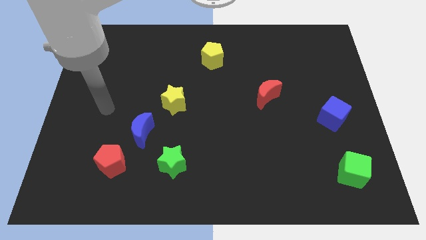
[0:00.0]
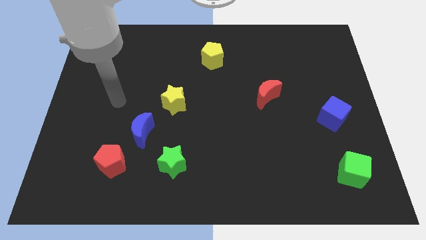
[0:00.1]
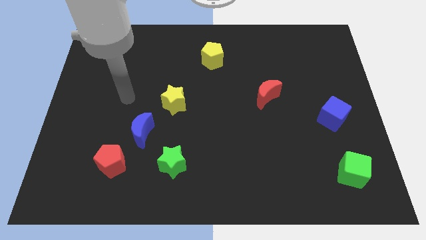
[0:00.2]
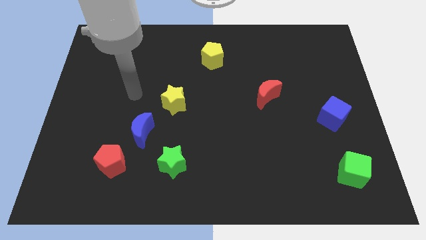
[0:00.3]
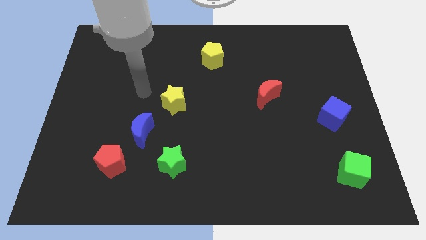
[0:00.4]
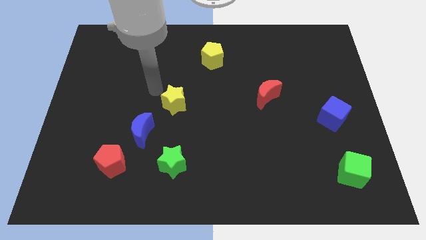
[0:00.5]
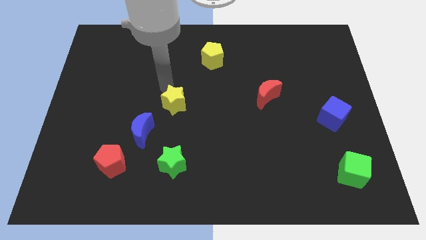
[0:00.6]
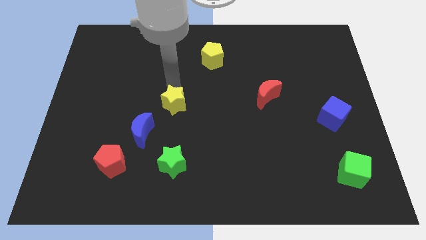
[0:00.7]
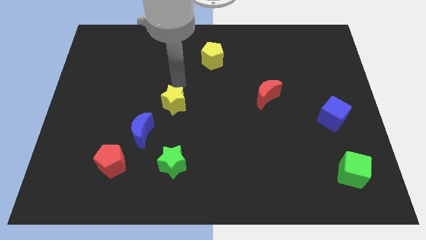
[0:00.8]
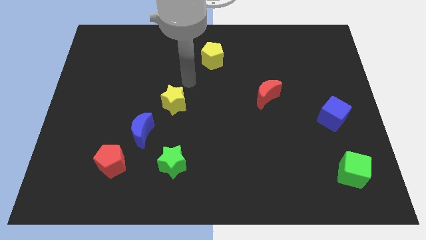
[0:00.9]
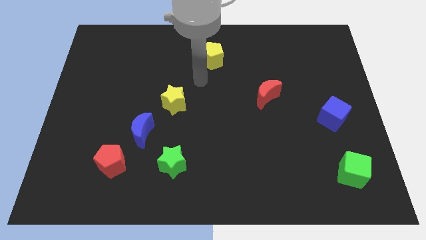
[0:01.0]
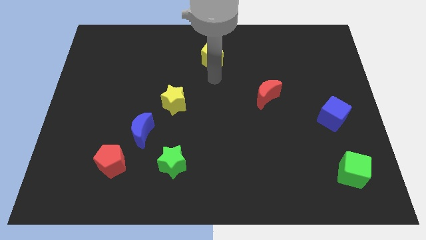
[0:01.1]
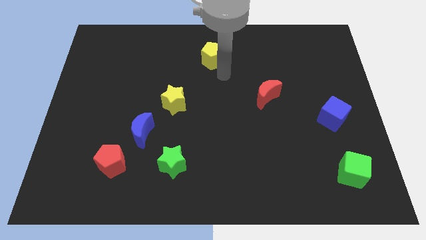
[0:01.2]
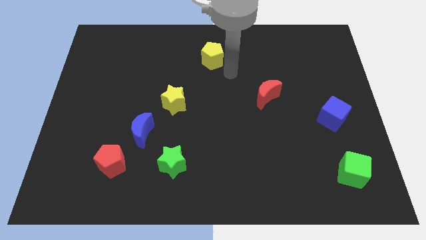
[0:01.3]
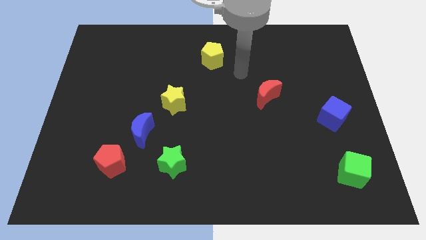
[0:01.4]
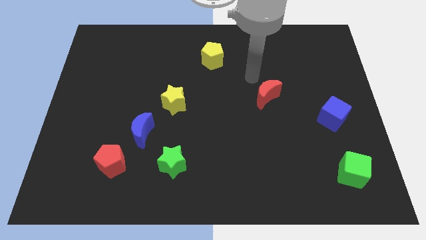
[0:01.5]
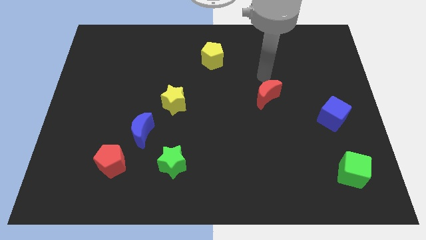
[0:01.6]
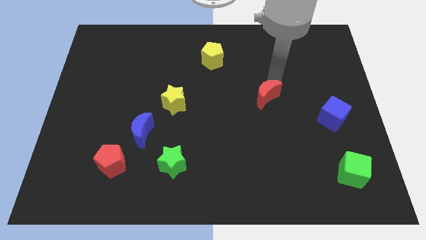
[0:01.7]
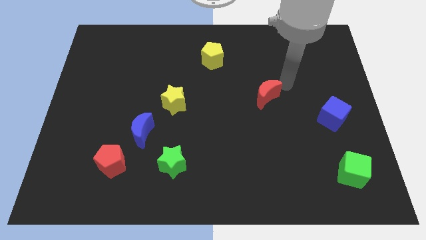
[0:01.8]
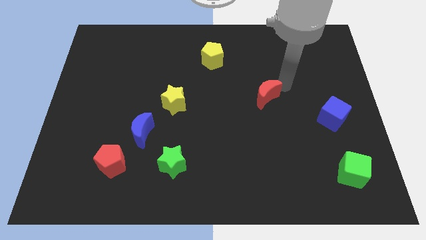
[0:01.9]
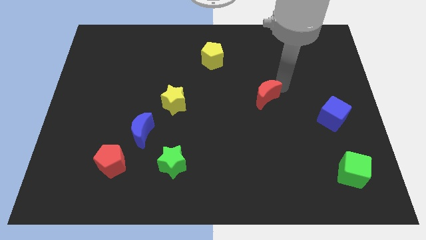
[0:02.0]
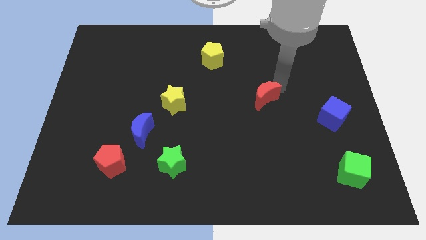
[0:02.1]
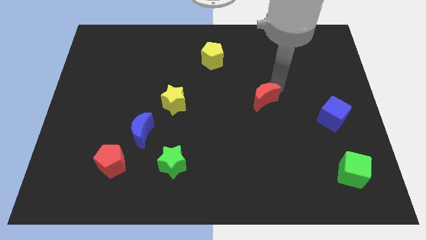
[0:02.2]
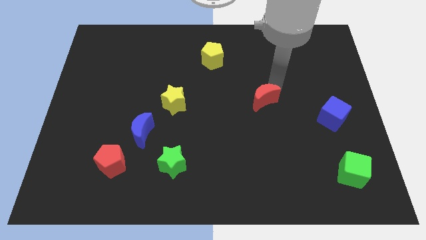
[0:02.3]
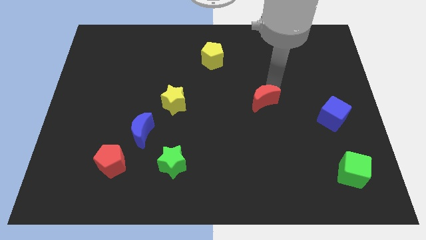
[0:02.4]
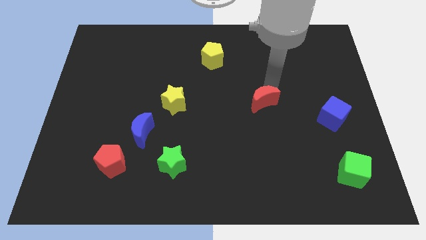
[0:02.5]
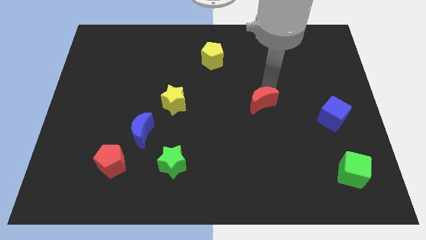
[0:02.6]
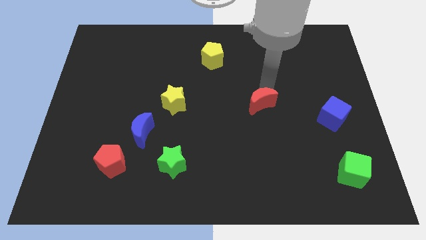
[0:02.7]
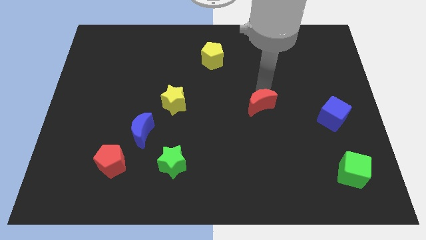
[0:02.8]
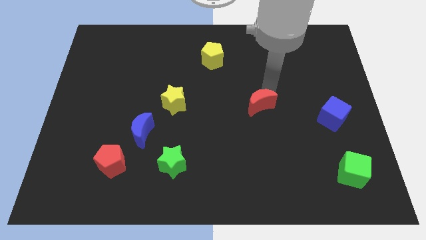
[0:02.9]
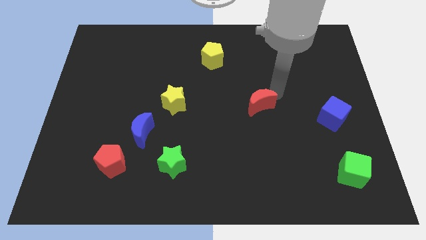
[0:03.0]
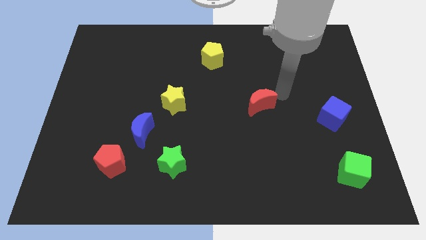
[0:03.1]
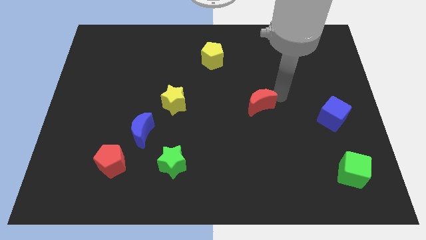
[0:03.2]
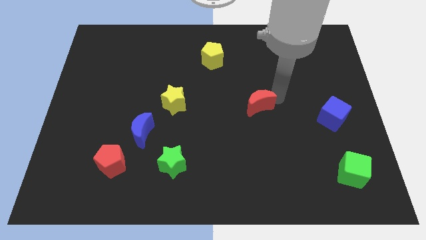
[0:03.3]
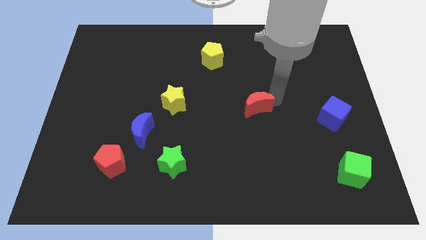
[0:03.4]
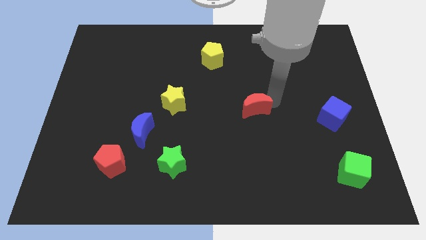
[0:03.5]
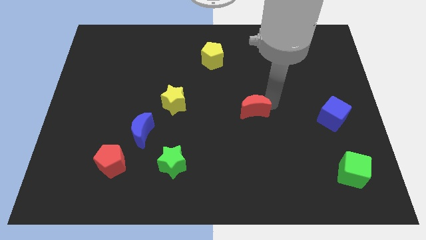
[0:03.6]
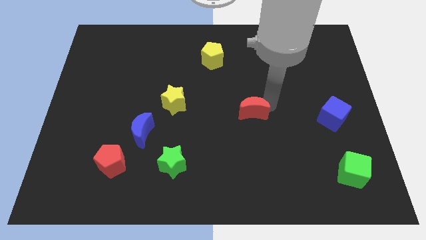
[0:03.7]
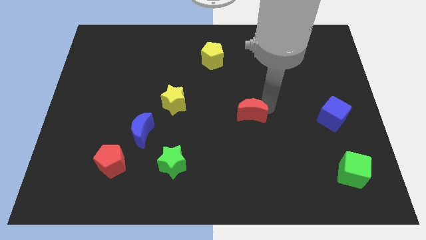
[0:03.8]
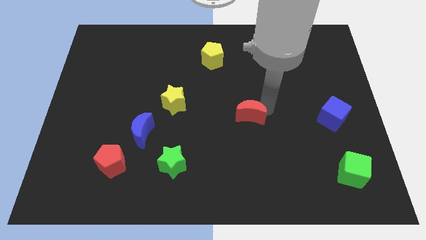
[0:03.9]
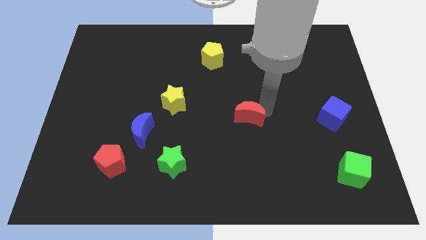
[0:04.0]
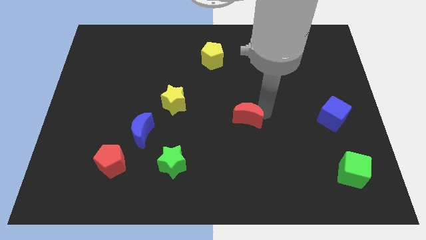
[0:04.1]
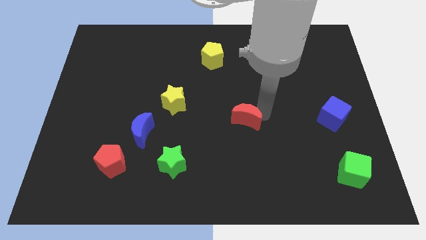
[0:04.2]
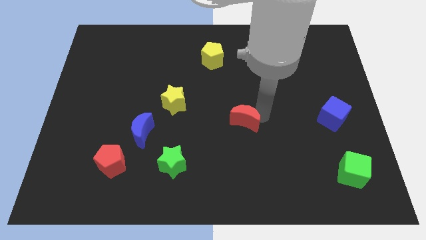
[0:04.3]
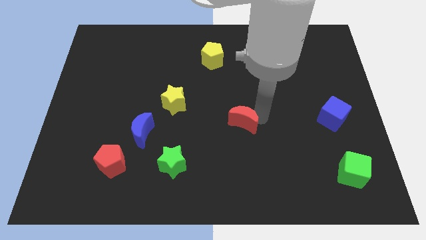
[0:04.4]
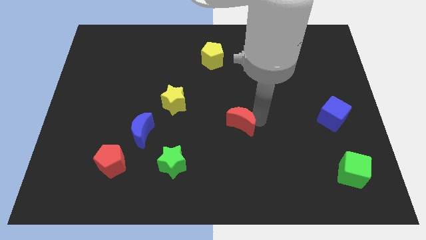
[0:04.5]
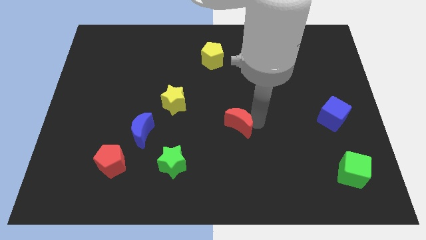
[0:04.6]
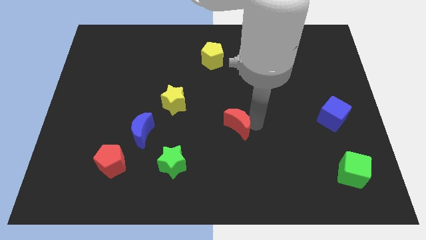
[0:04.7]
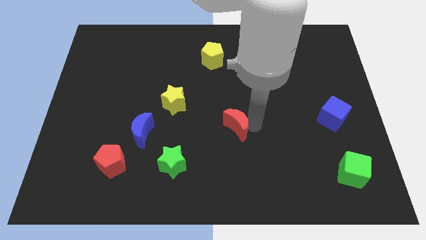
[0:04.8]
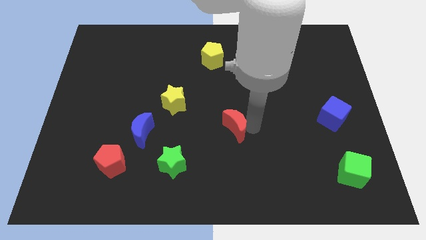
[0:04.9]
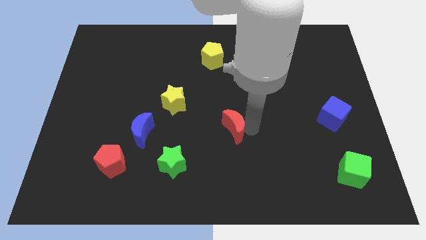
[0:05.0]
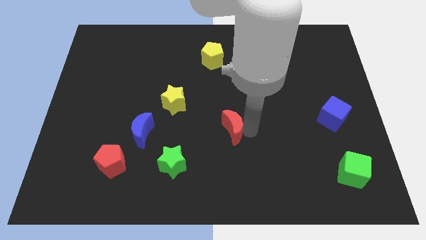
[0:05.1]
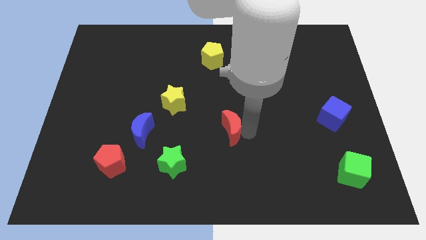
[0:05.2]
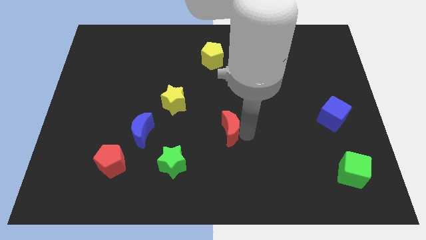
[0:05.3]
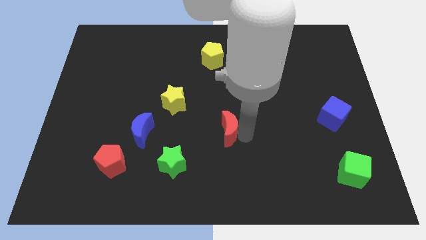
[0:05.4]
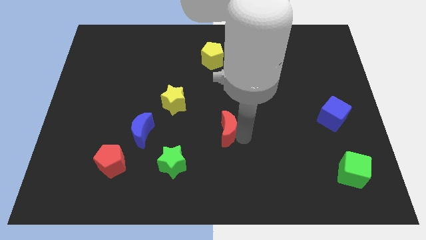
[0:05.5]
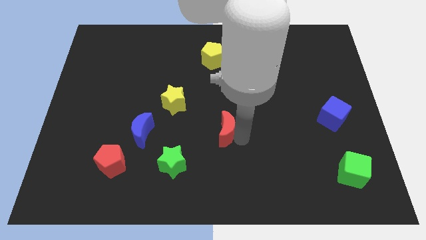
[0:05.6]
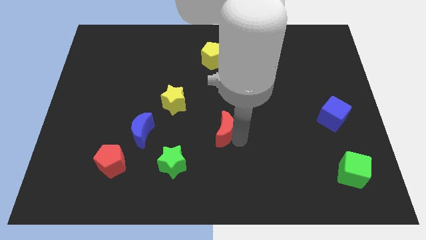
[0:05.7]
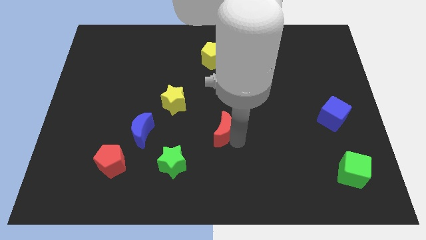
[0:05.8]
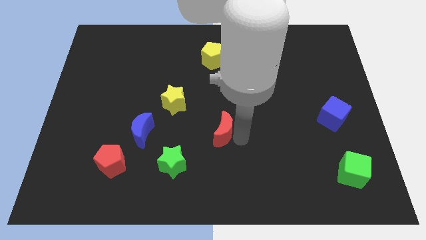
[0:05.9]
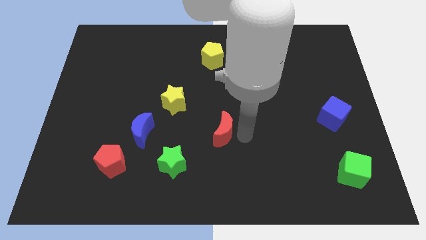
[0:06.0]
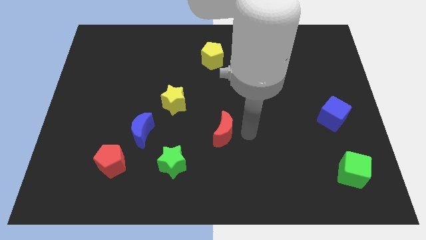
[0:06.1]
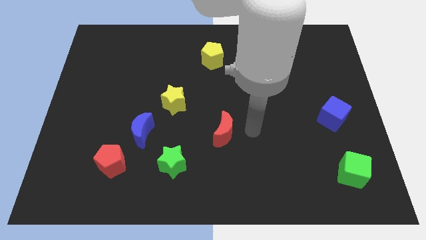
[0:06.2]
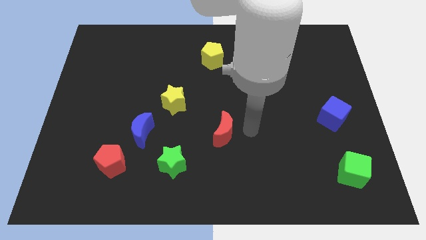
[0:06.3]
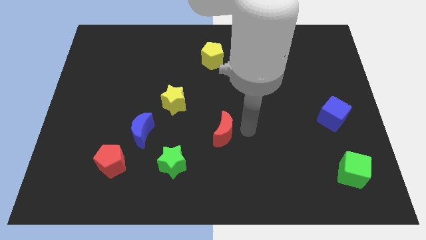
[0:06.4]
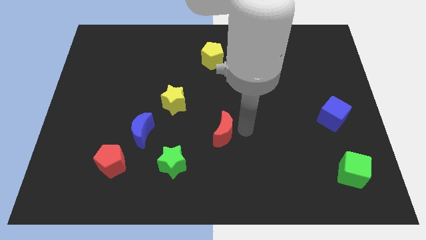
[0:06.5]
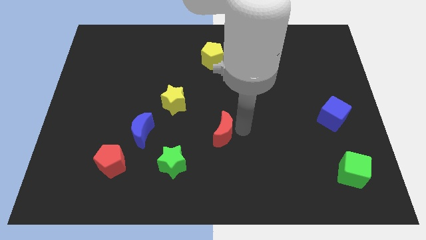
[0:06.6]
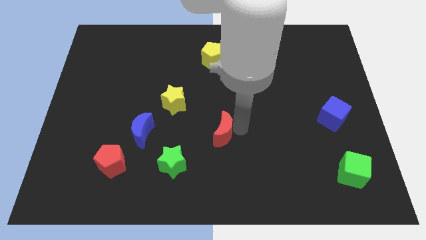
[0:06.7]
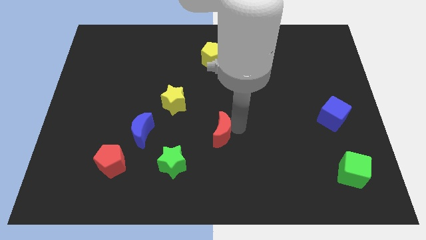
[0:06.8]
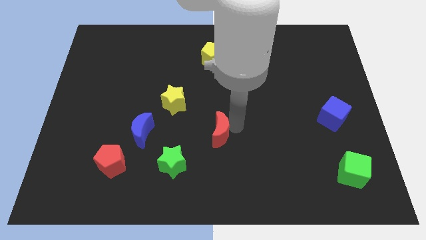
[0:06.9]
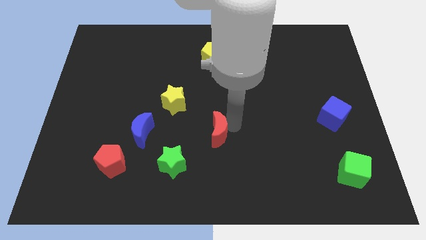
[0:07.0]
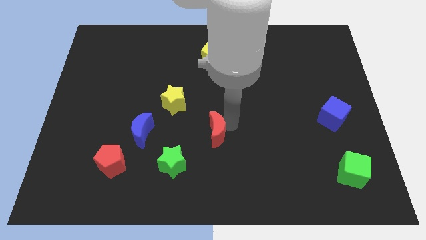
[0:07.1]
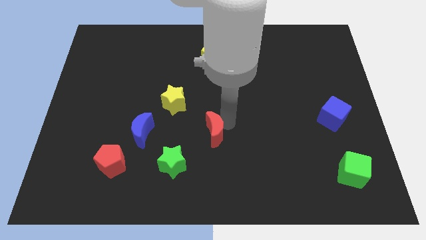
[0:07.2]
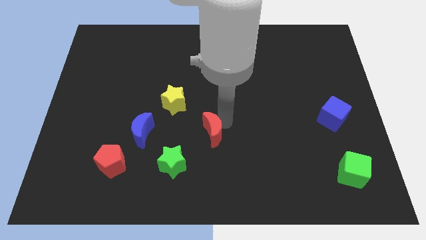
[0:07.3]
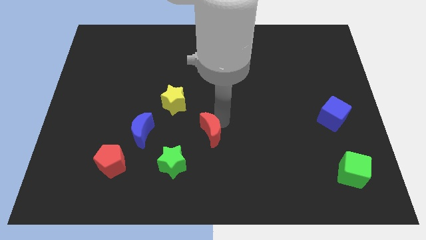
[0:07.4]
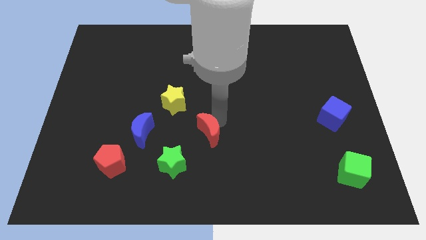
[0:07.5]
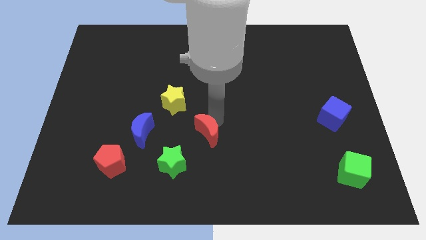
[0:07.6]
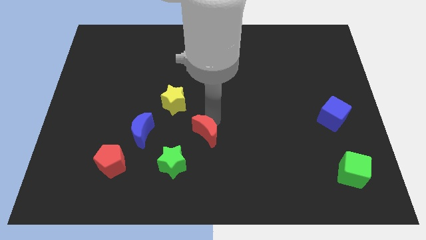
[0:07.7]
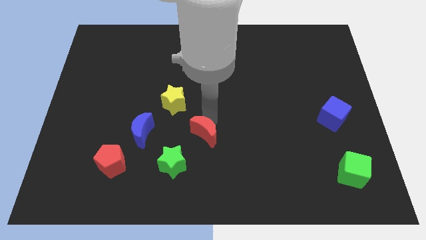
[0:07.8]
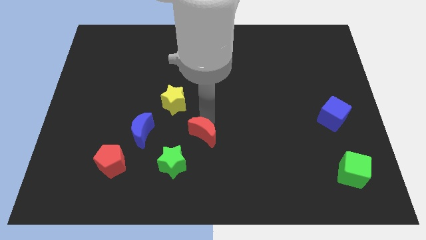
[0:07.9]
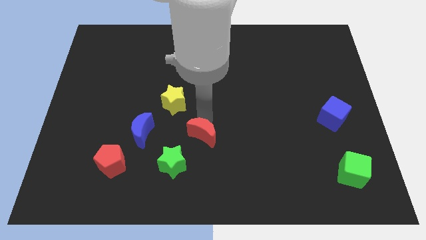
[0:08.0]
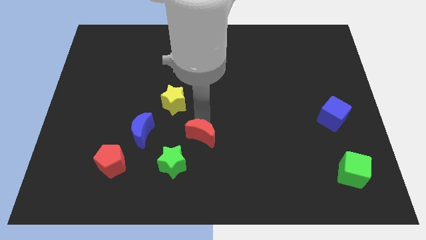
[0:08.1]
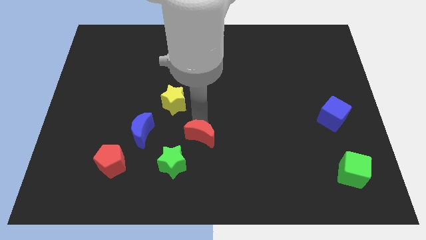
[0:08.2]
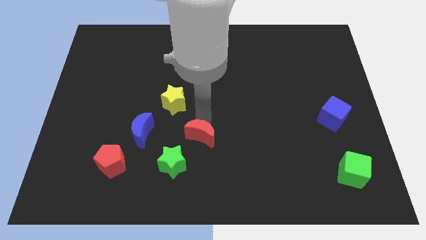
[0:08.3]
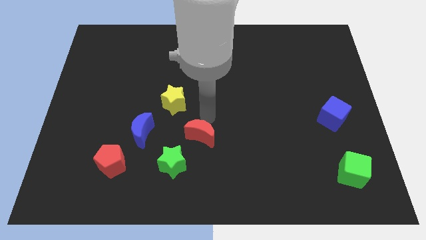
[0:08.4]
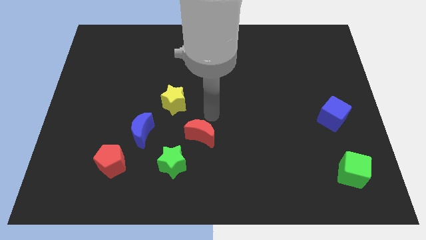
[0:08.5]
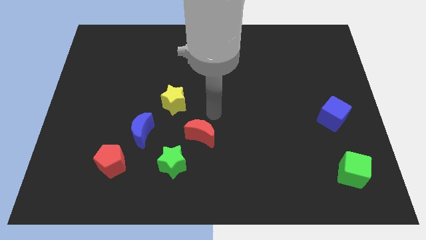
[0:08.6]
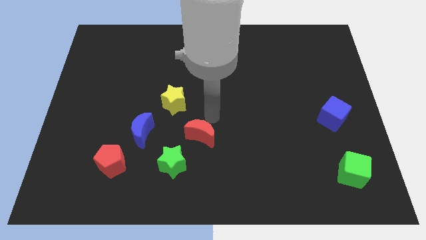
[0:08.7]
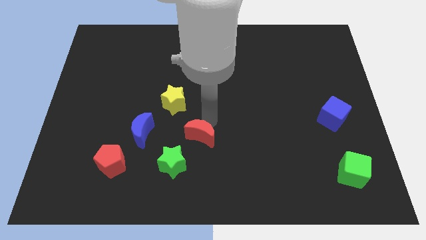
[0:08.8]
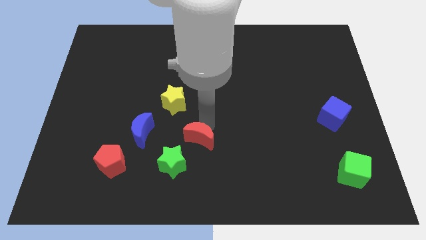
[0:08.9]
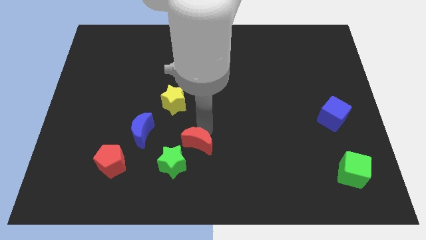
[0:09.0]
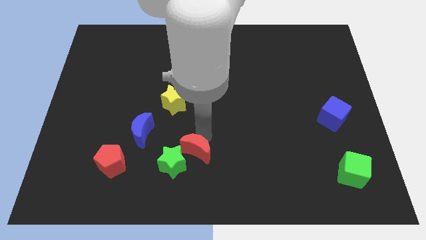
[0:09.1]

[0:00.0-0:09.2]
push the red moon towards the green star
